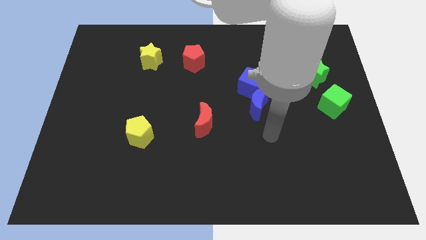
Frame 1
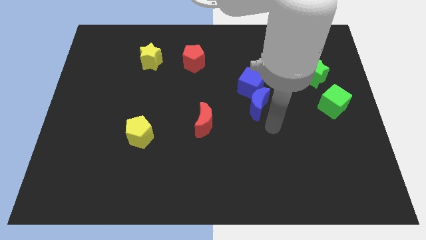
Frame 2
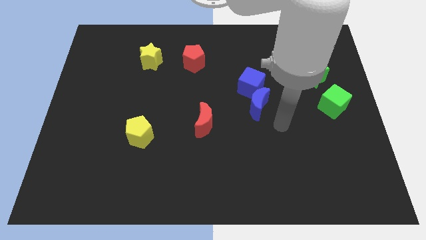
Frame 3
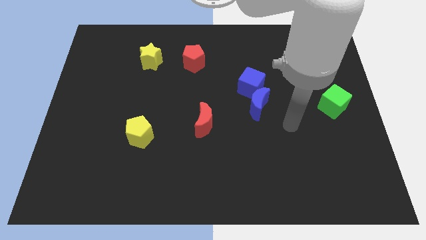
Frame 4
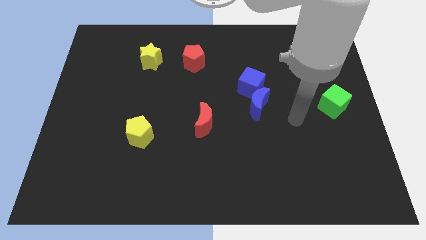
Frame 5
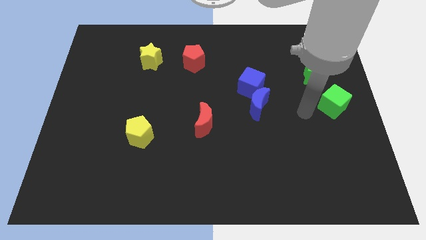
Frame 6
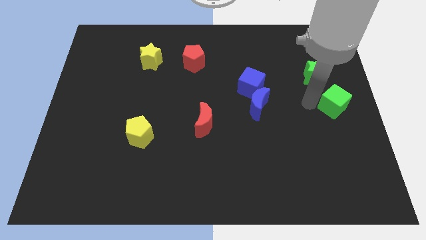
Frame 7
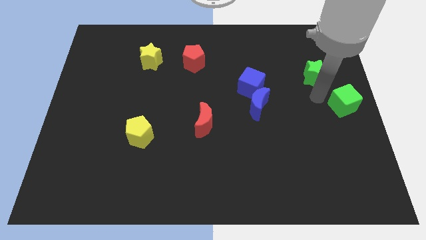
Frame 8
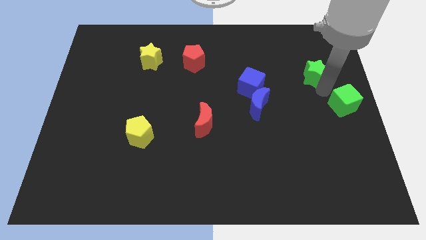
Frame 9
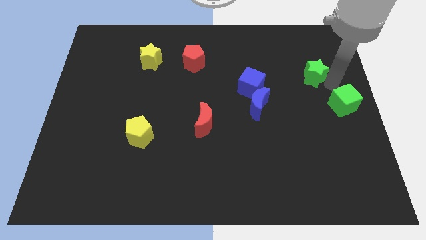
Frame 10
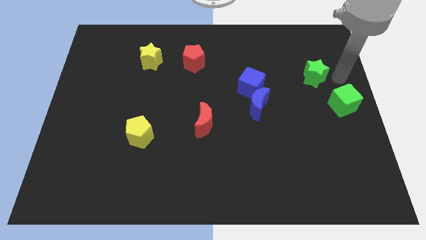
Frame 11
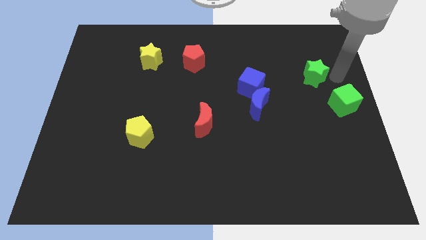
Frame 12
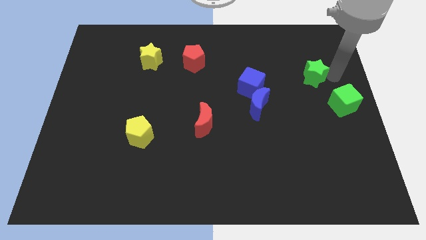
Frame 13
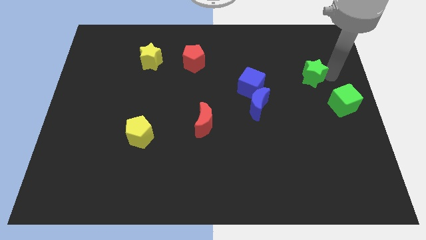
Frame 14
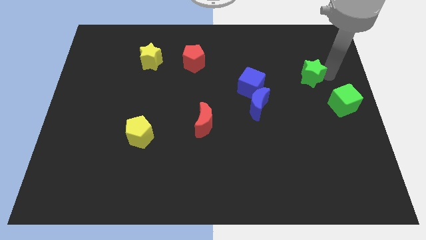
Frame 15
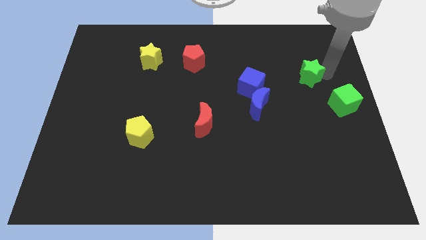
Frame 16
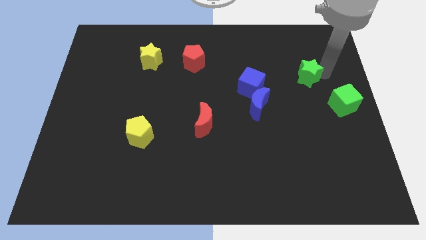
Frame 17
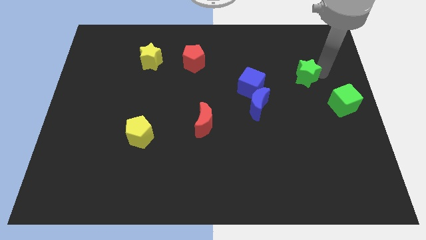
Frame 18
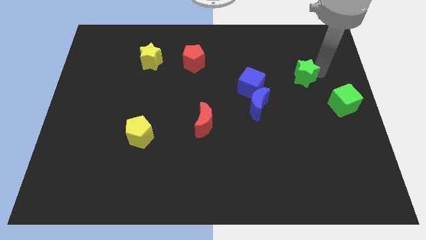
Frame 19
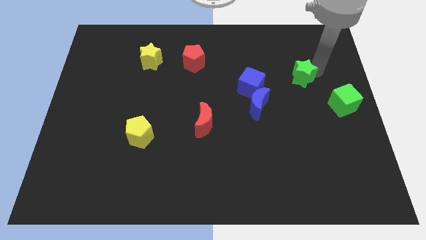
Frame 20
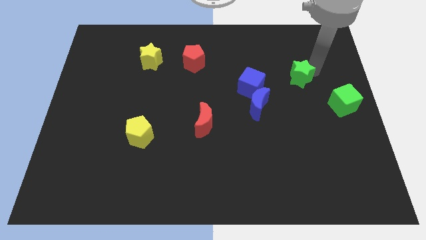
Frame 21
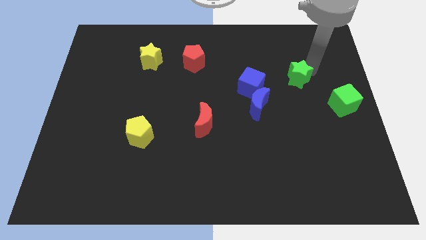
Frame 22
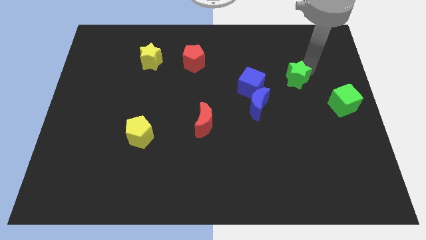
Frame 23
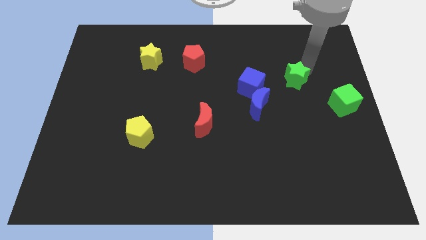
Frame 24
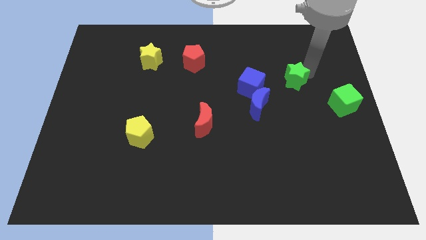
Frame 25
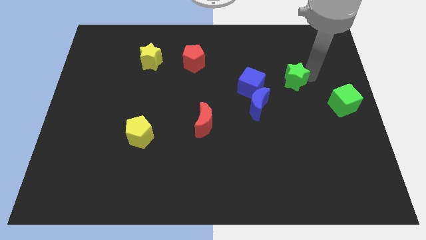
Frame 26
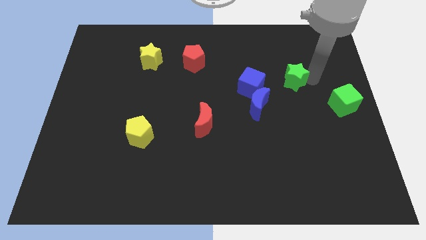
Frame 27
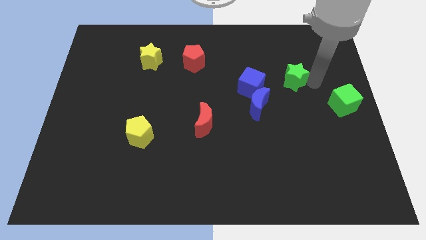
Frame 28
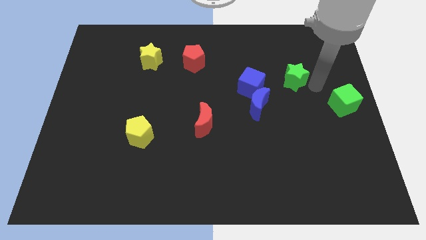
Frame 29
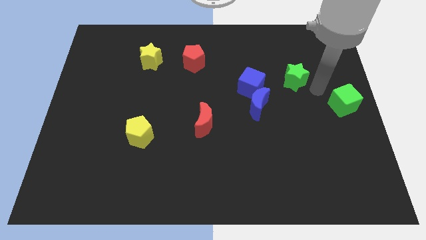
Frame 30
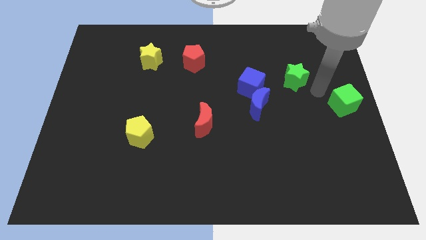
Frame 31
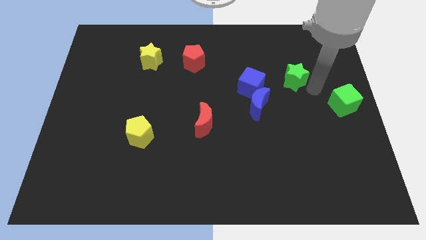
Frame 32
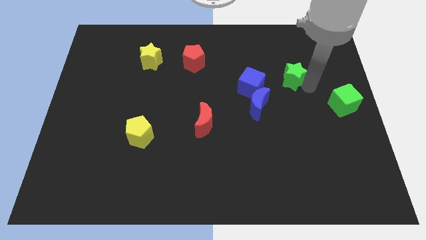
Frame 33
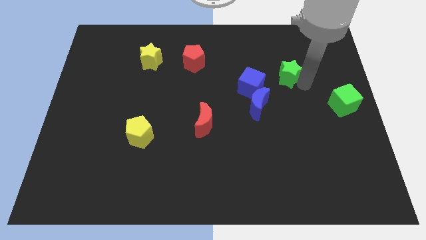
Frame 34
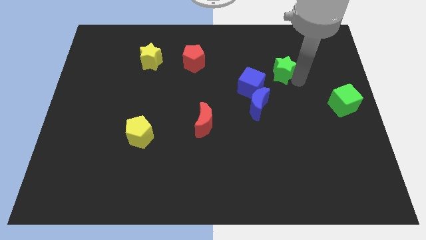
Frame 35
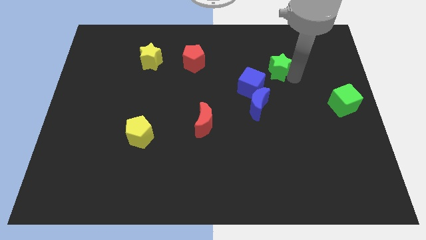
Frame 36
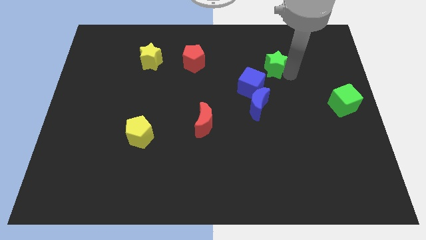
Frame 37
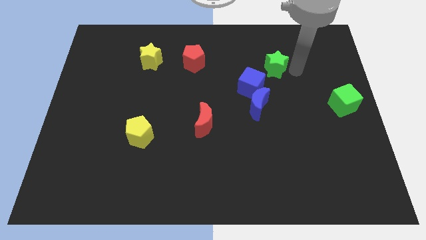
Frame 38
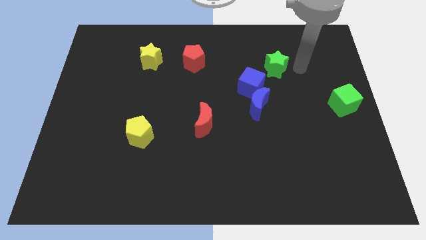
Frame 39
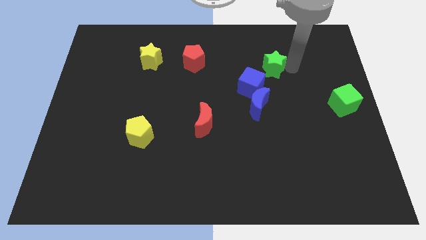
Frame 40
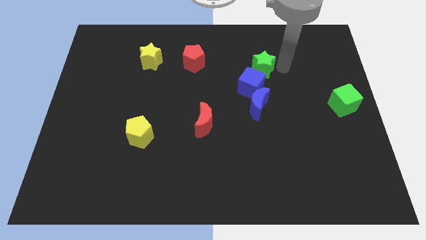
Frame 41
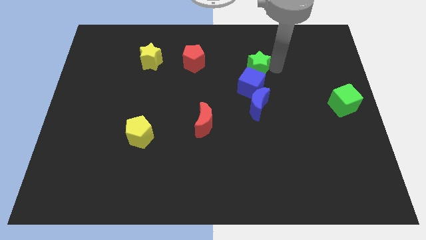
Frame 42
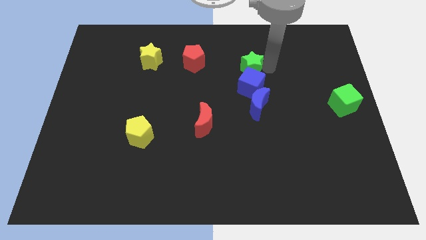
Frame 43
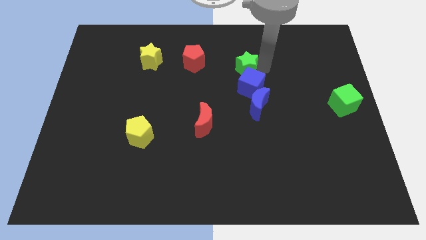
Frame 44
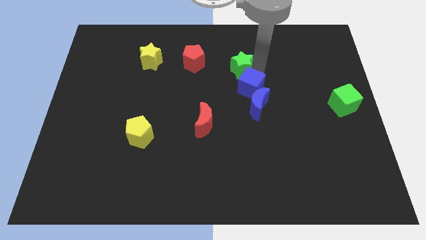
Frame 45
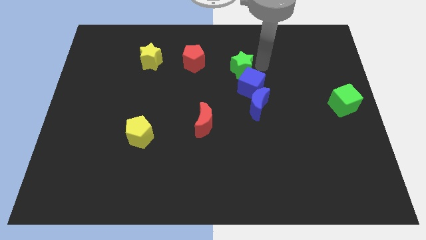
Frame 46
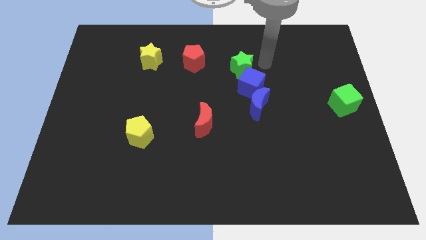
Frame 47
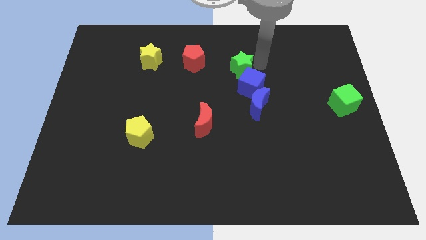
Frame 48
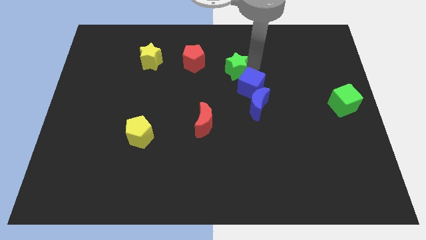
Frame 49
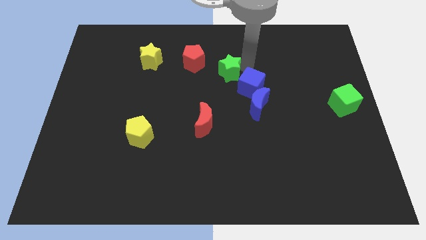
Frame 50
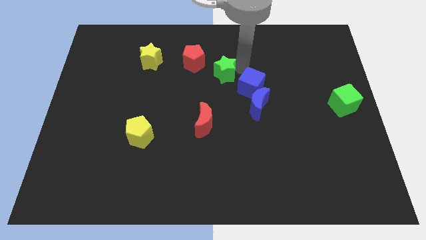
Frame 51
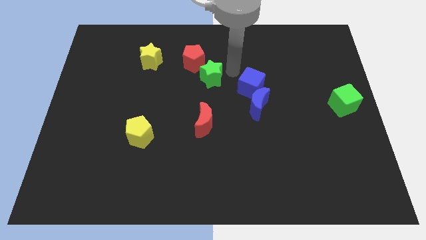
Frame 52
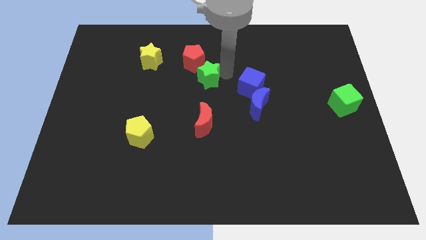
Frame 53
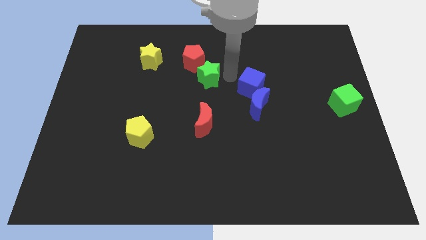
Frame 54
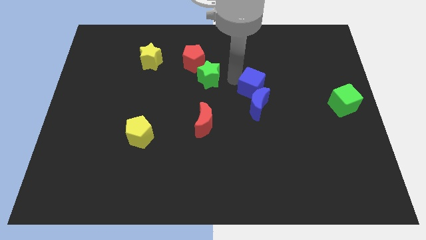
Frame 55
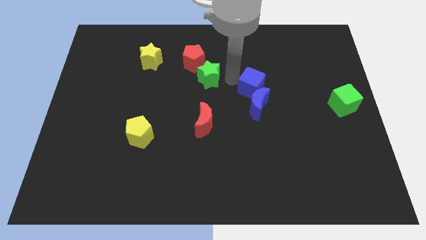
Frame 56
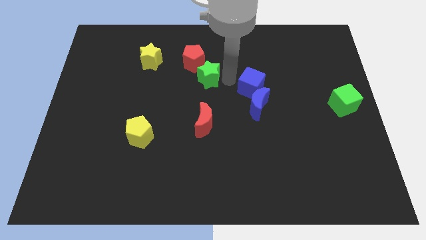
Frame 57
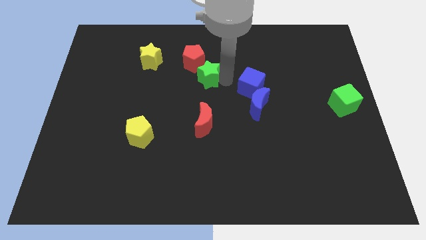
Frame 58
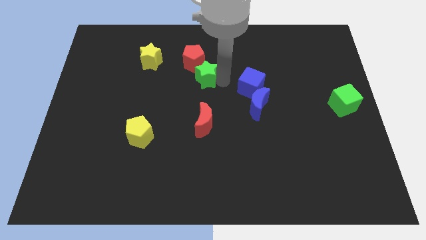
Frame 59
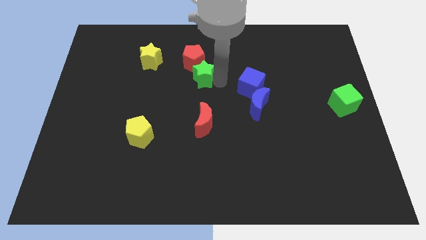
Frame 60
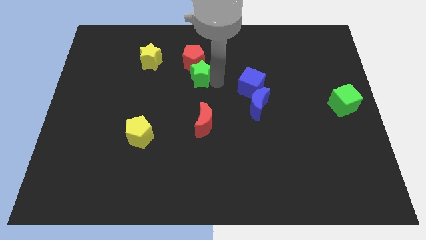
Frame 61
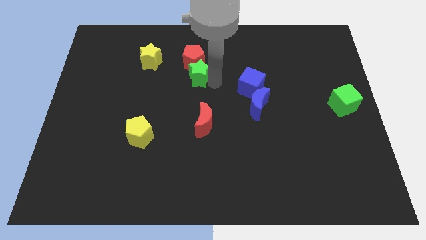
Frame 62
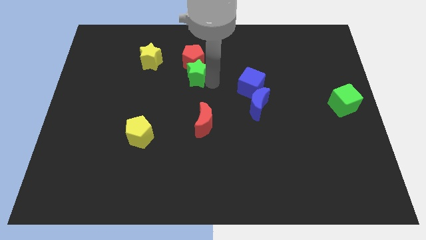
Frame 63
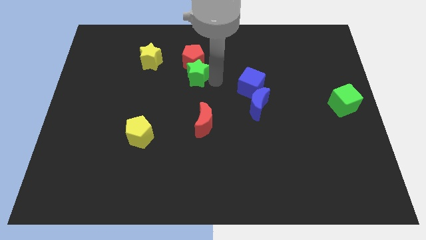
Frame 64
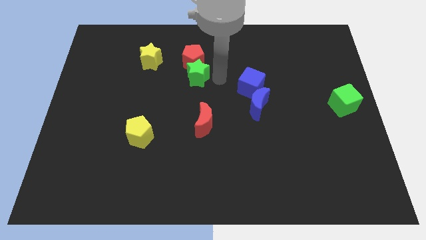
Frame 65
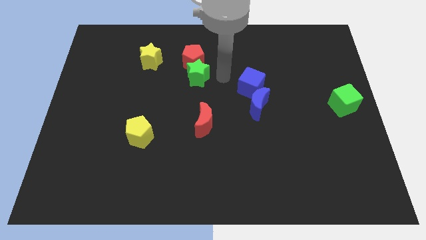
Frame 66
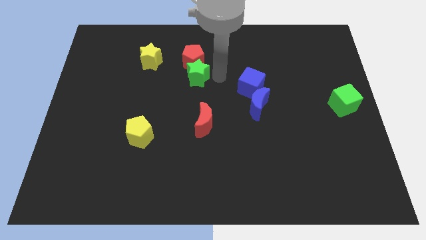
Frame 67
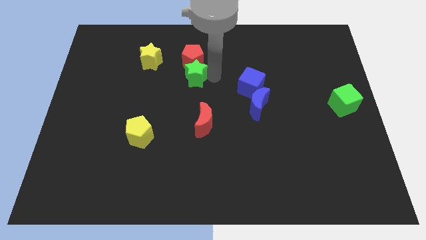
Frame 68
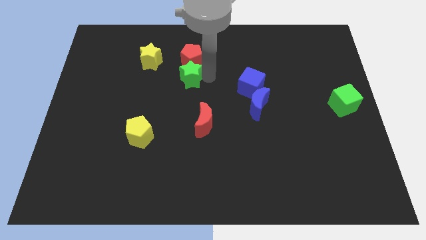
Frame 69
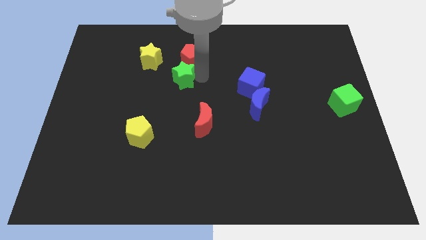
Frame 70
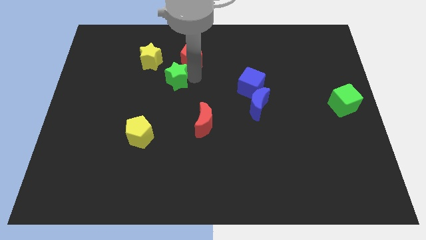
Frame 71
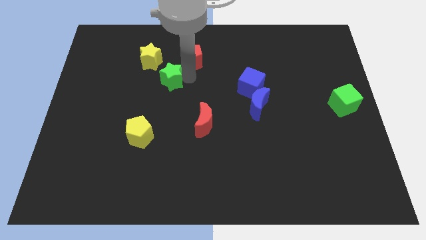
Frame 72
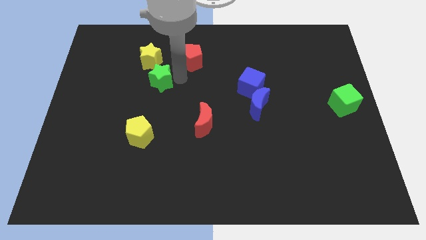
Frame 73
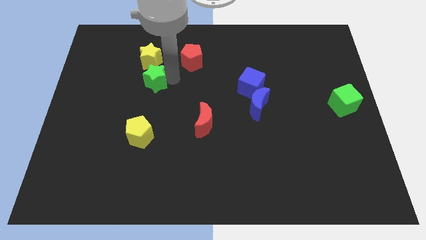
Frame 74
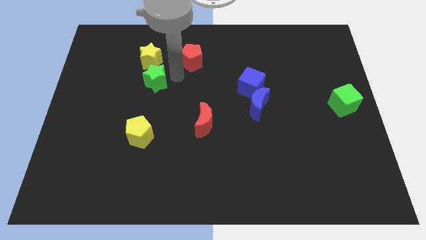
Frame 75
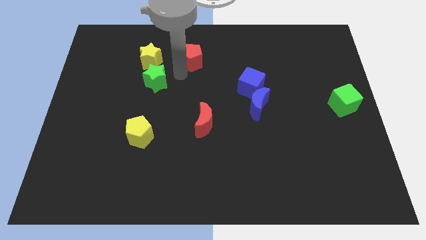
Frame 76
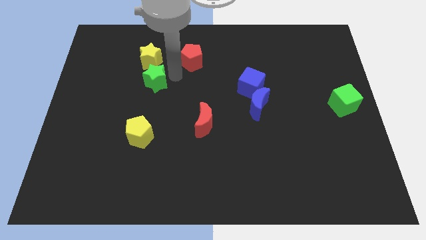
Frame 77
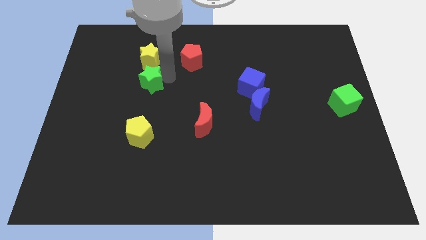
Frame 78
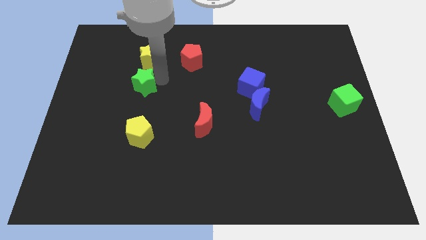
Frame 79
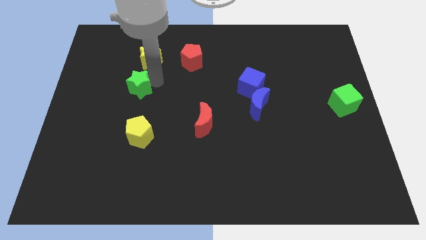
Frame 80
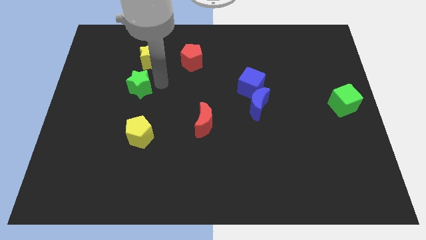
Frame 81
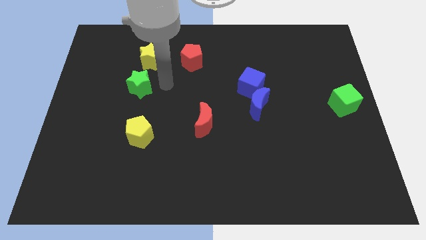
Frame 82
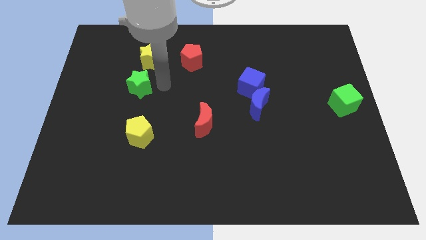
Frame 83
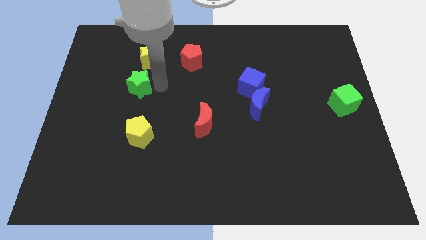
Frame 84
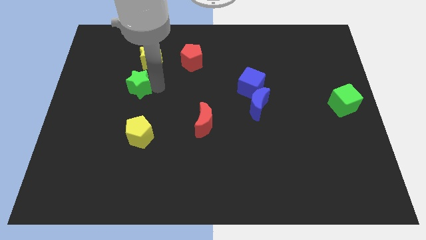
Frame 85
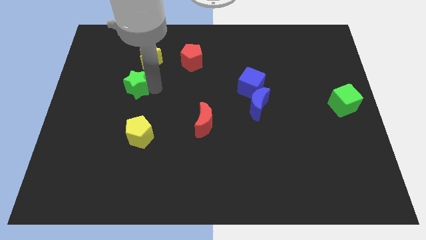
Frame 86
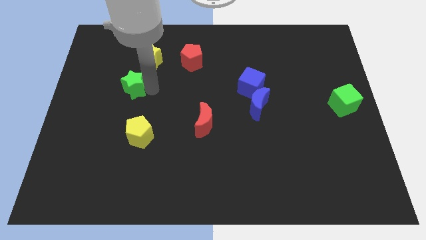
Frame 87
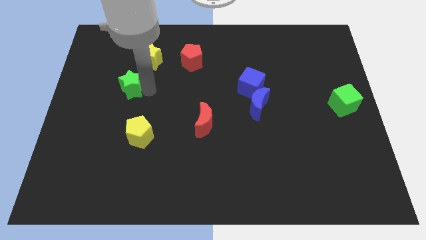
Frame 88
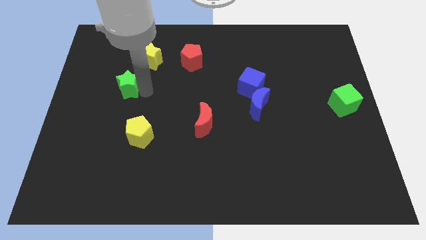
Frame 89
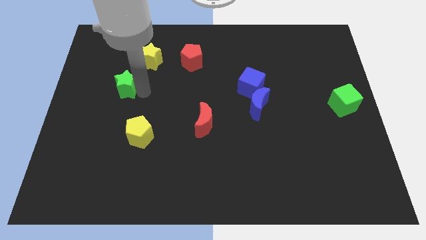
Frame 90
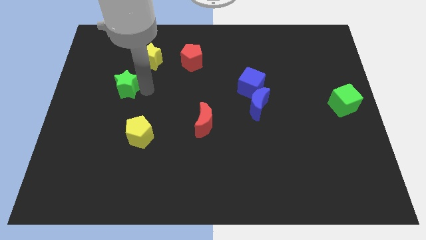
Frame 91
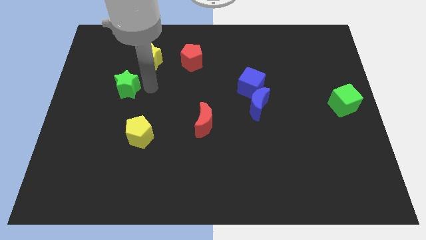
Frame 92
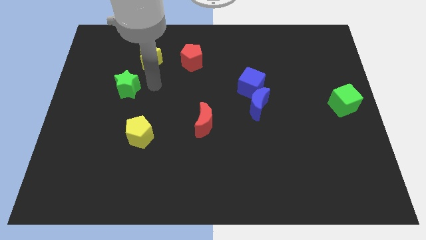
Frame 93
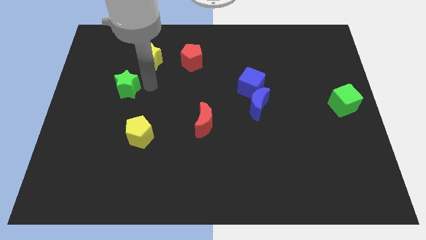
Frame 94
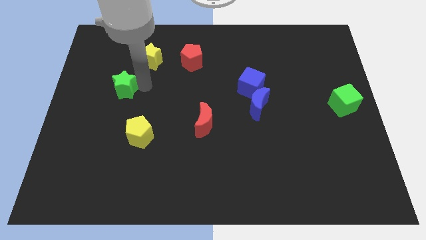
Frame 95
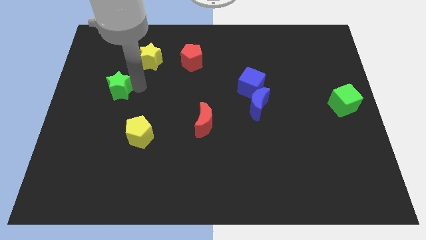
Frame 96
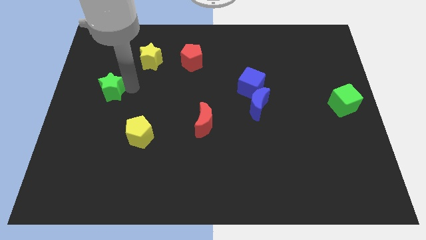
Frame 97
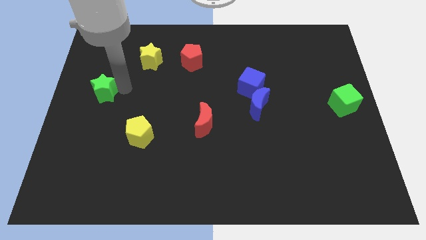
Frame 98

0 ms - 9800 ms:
move the green star to the left side of the board
